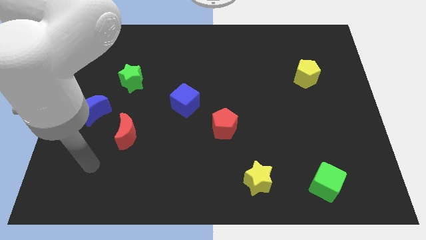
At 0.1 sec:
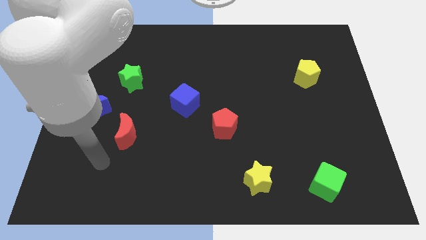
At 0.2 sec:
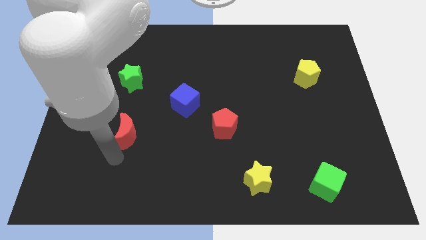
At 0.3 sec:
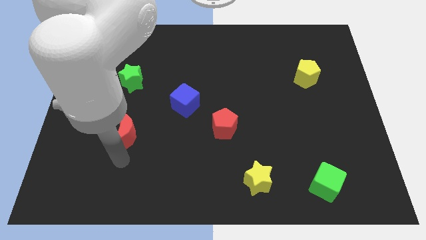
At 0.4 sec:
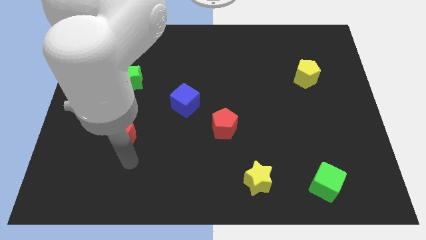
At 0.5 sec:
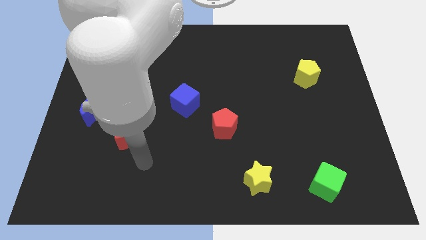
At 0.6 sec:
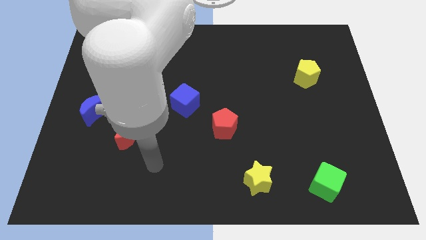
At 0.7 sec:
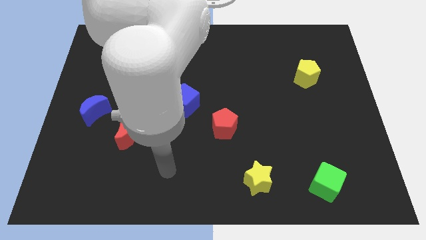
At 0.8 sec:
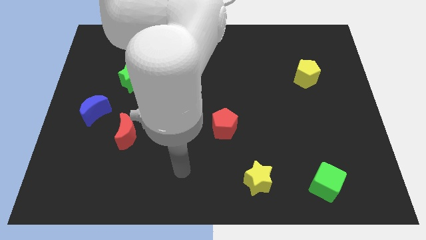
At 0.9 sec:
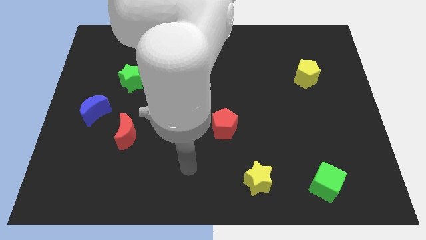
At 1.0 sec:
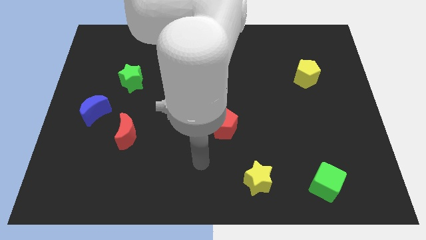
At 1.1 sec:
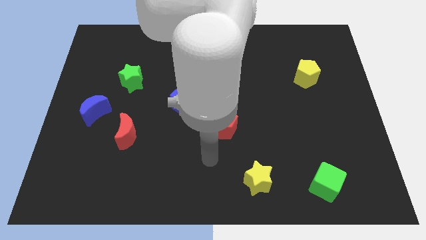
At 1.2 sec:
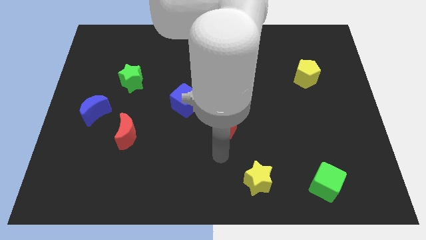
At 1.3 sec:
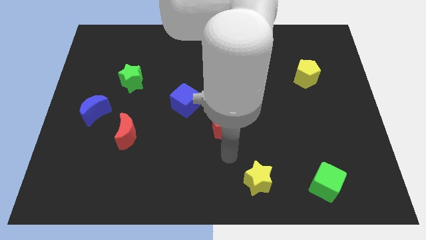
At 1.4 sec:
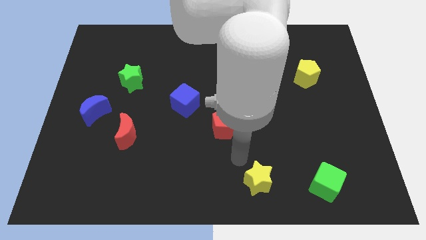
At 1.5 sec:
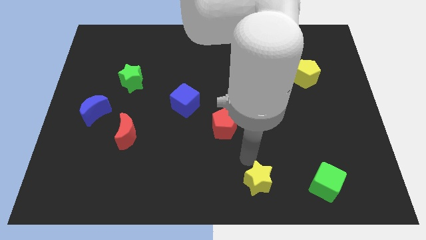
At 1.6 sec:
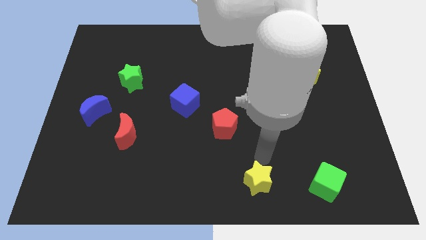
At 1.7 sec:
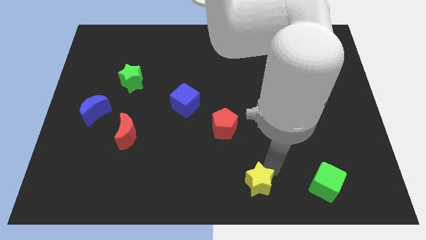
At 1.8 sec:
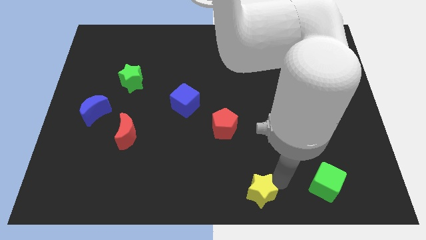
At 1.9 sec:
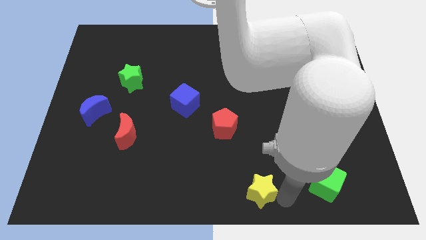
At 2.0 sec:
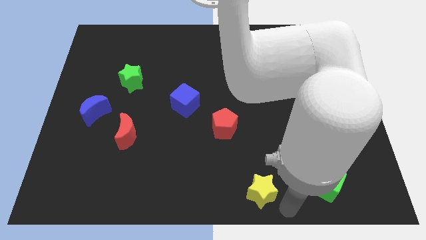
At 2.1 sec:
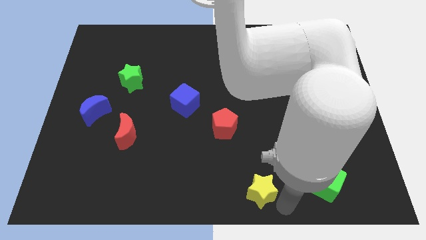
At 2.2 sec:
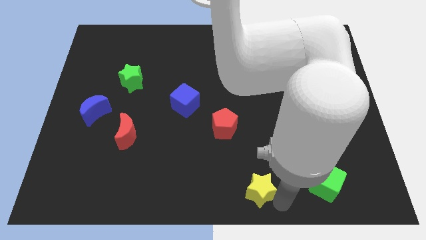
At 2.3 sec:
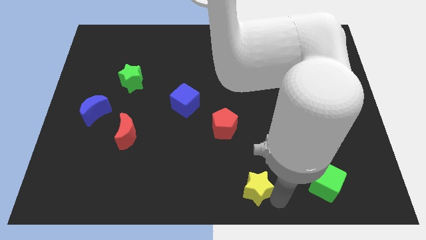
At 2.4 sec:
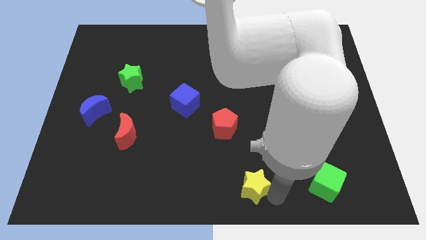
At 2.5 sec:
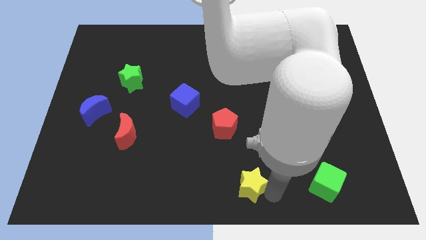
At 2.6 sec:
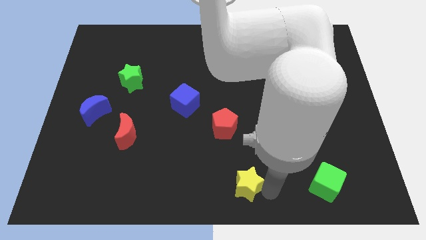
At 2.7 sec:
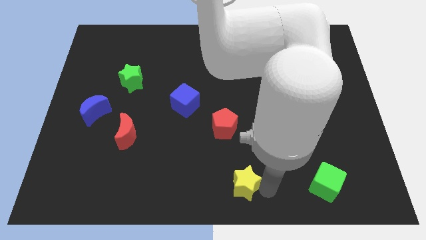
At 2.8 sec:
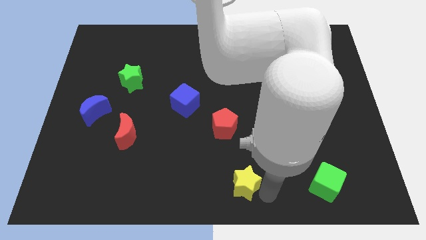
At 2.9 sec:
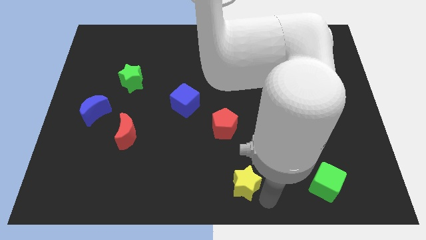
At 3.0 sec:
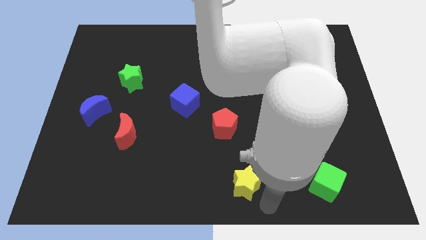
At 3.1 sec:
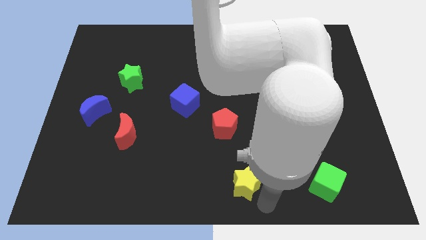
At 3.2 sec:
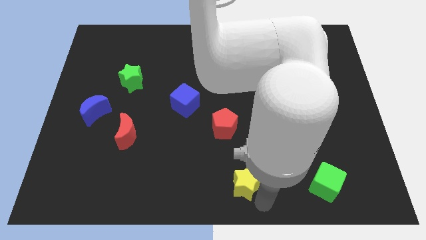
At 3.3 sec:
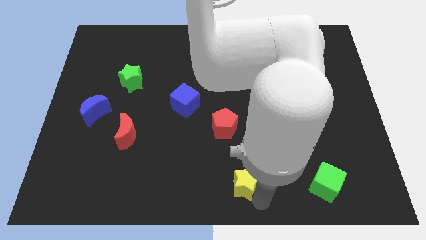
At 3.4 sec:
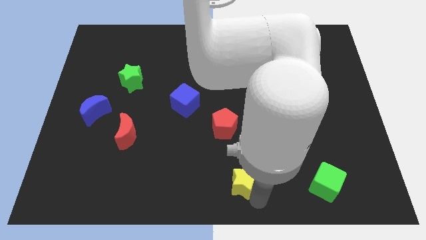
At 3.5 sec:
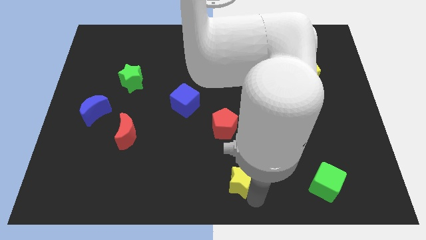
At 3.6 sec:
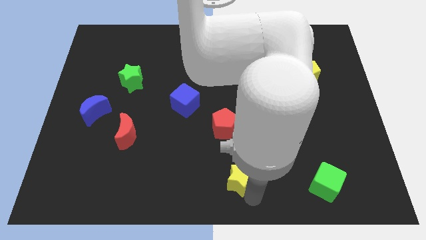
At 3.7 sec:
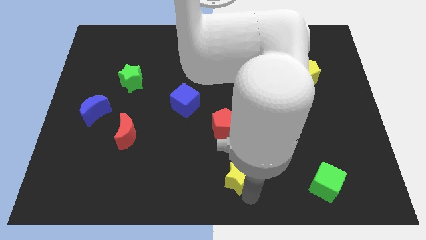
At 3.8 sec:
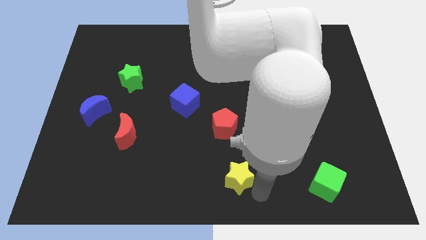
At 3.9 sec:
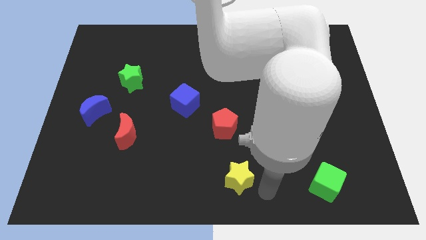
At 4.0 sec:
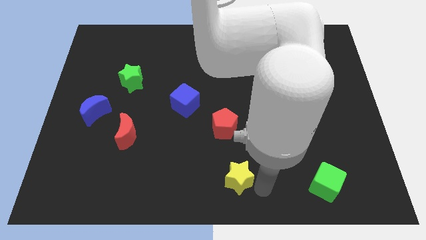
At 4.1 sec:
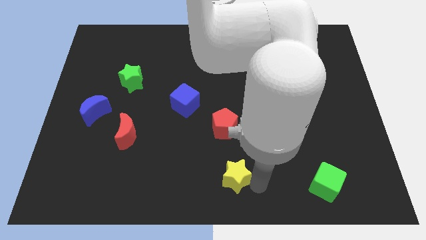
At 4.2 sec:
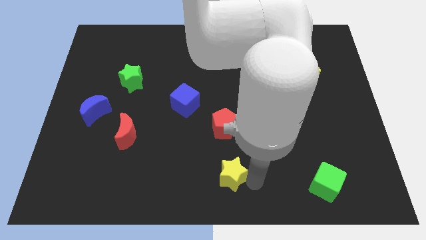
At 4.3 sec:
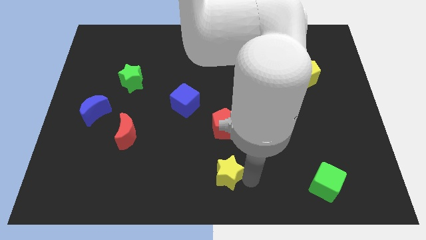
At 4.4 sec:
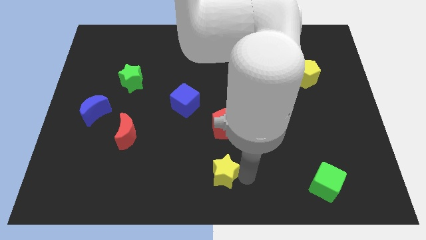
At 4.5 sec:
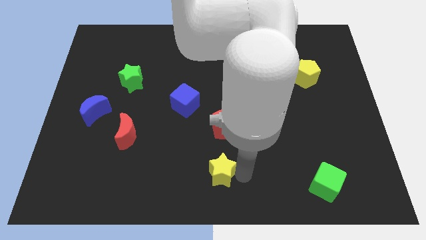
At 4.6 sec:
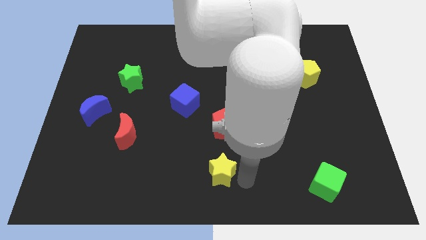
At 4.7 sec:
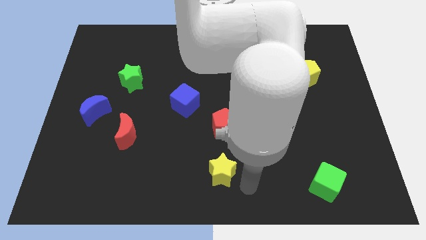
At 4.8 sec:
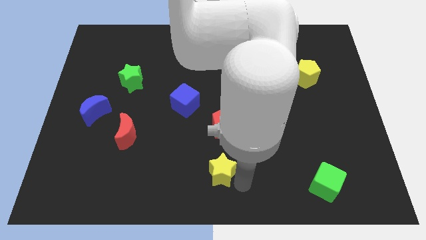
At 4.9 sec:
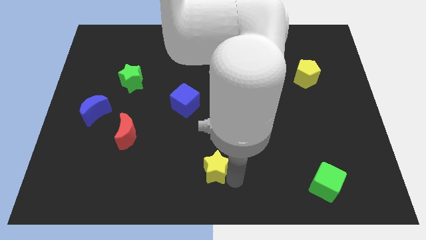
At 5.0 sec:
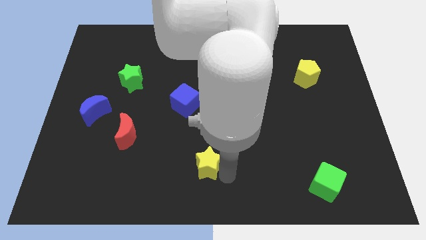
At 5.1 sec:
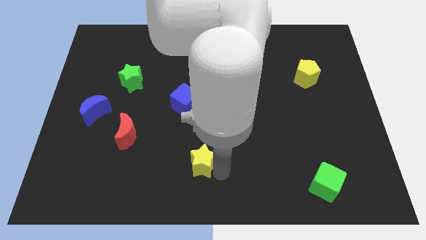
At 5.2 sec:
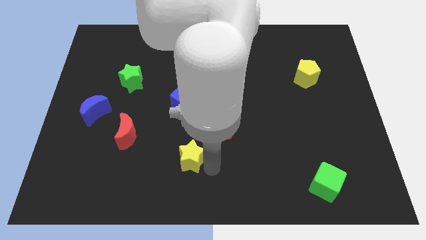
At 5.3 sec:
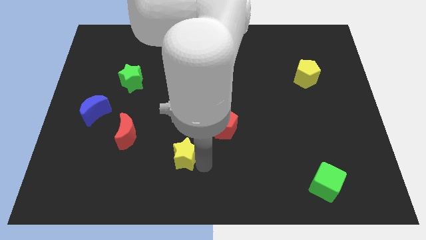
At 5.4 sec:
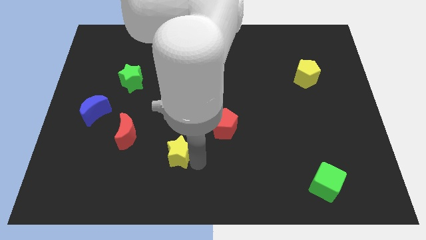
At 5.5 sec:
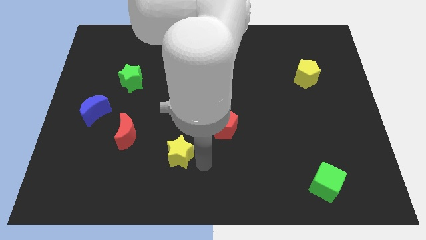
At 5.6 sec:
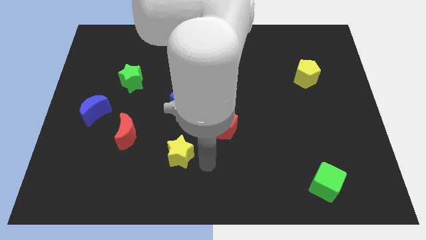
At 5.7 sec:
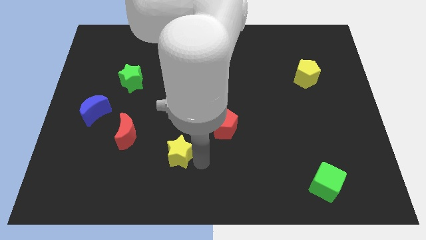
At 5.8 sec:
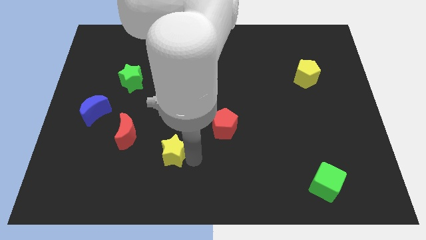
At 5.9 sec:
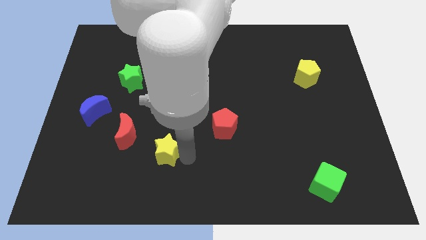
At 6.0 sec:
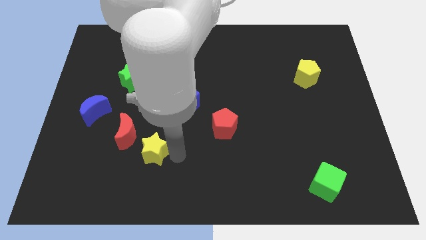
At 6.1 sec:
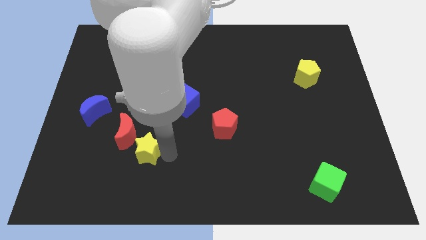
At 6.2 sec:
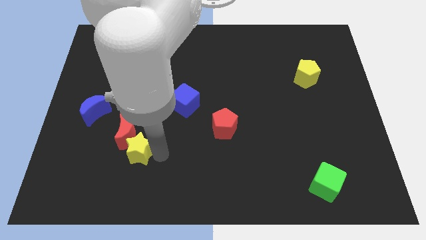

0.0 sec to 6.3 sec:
put the yellow star close to the red moon

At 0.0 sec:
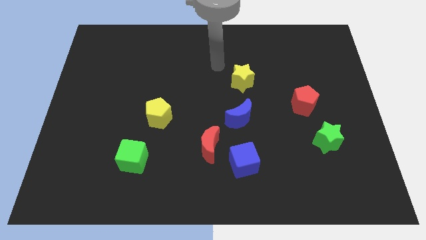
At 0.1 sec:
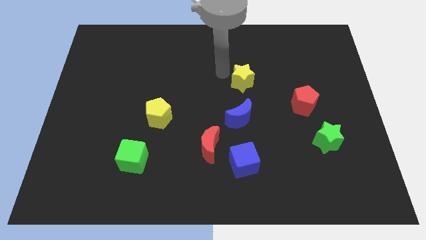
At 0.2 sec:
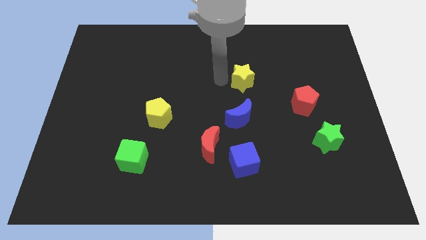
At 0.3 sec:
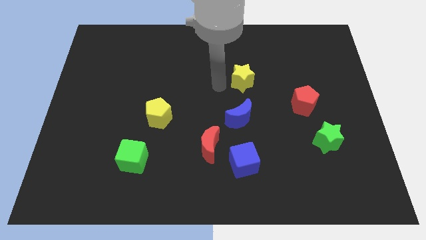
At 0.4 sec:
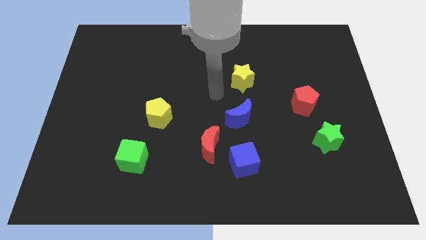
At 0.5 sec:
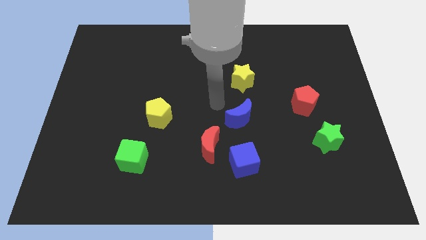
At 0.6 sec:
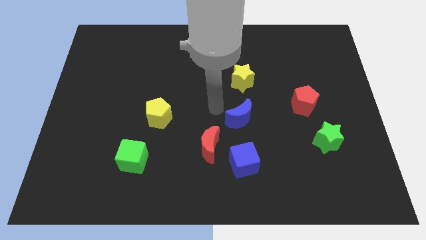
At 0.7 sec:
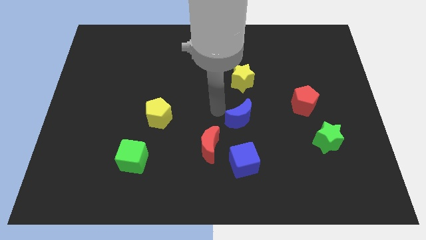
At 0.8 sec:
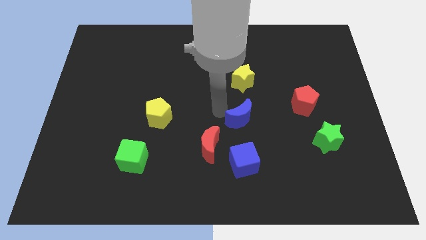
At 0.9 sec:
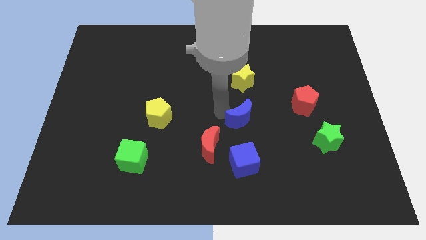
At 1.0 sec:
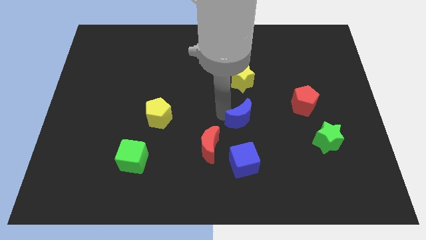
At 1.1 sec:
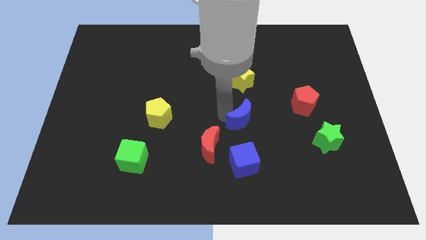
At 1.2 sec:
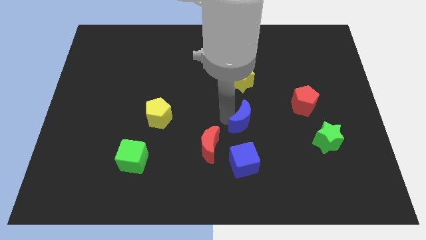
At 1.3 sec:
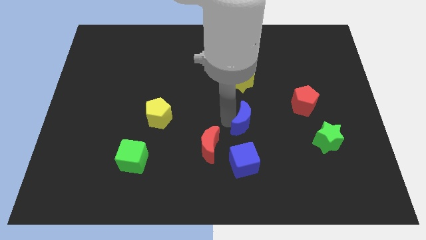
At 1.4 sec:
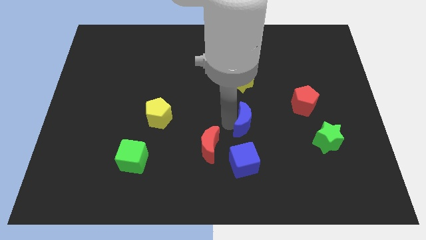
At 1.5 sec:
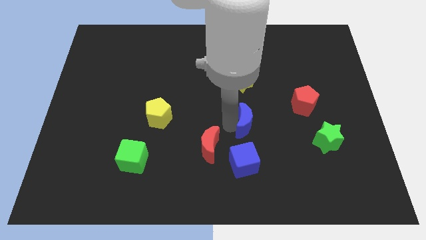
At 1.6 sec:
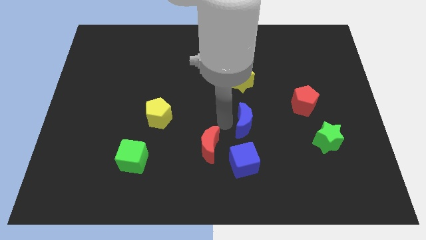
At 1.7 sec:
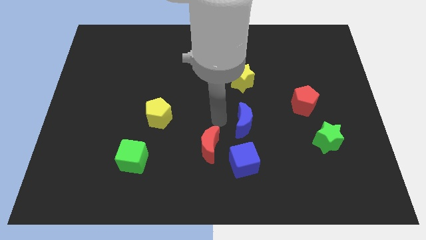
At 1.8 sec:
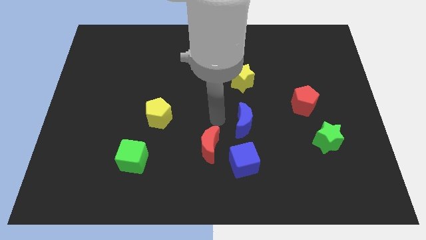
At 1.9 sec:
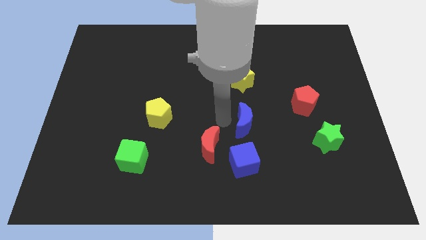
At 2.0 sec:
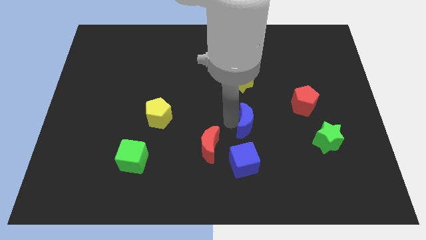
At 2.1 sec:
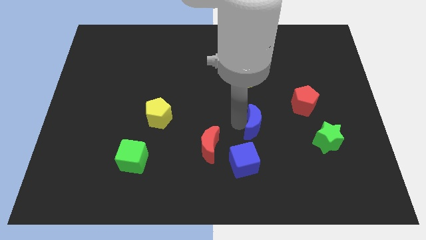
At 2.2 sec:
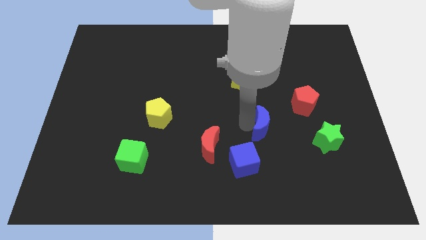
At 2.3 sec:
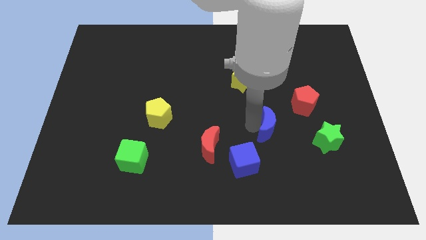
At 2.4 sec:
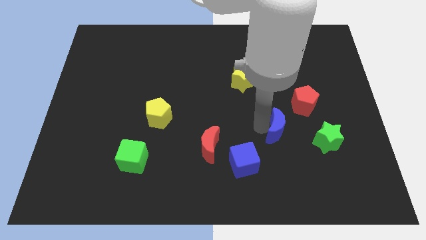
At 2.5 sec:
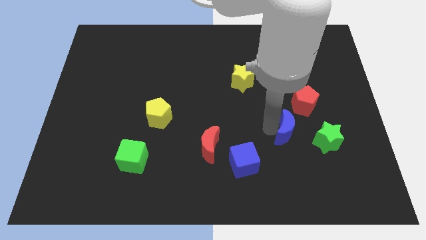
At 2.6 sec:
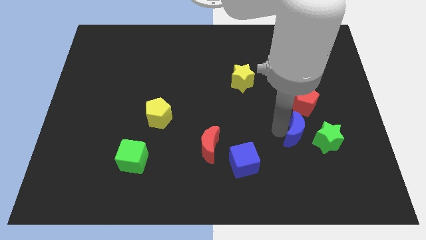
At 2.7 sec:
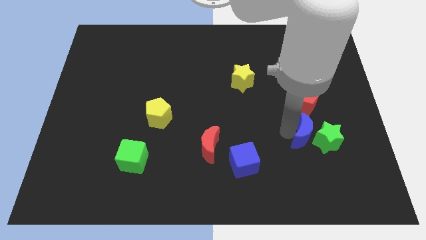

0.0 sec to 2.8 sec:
move the blue moon towards the green star
